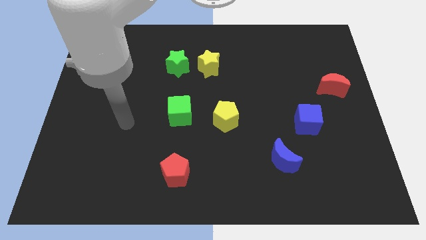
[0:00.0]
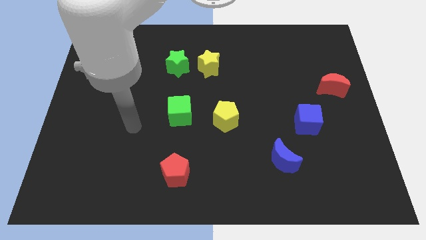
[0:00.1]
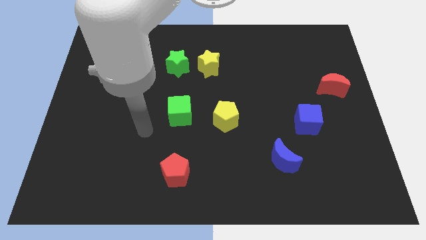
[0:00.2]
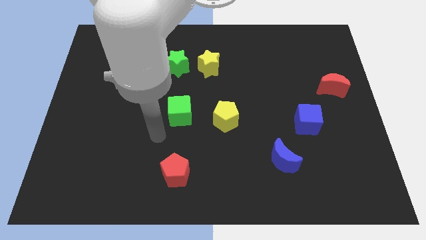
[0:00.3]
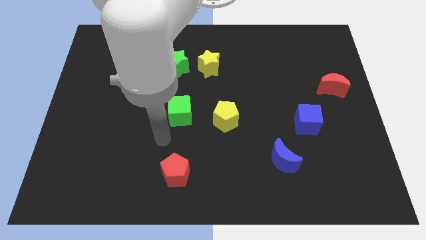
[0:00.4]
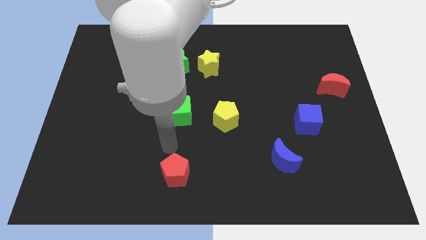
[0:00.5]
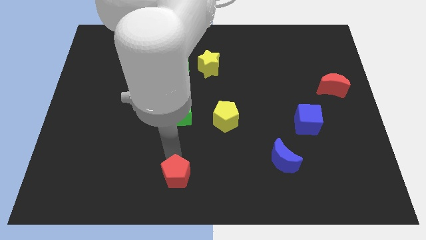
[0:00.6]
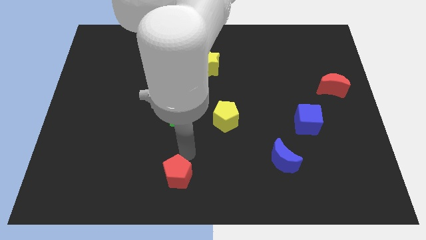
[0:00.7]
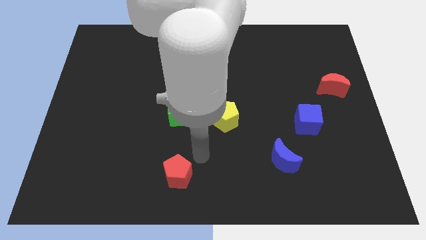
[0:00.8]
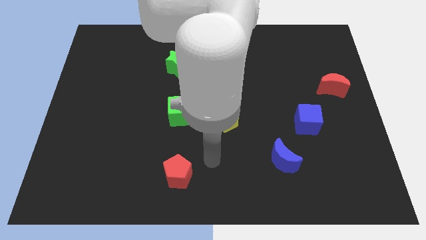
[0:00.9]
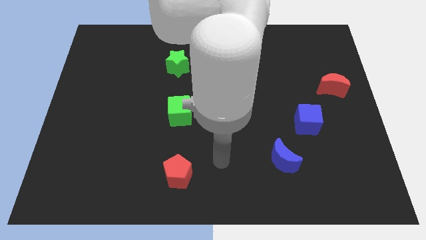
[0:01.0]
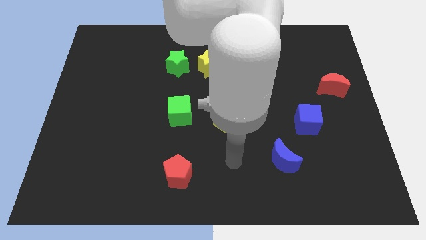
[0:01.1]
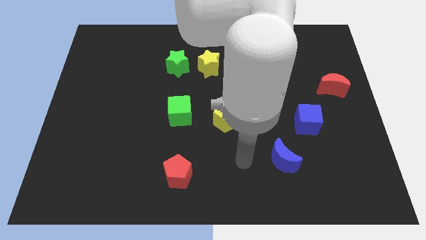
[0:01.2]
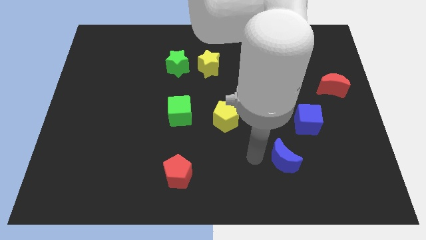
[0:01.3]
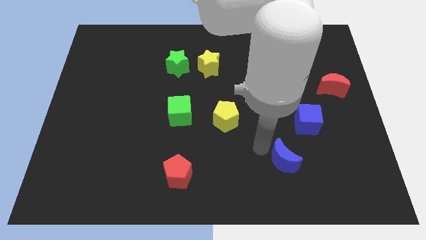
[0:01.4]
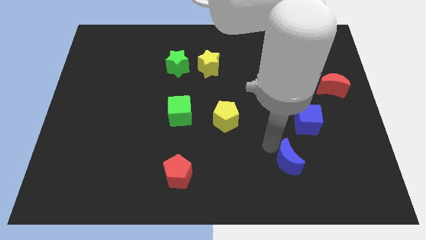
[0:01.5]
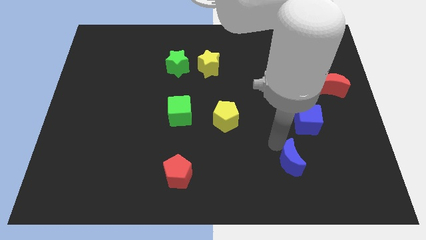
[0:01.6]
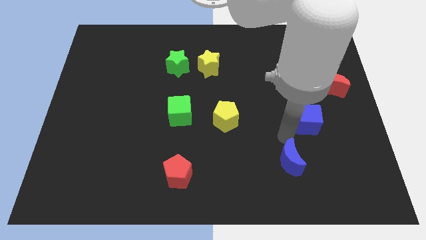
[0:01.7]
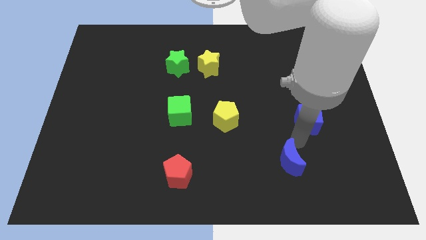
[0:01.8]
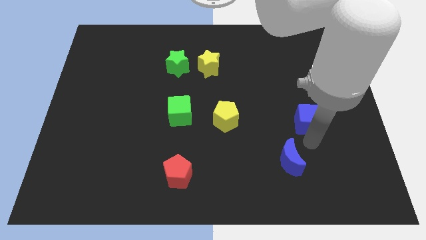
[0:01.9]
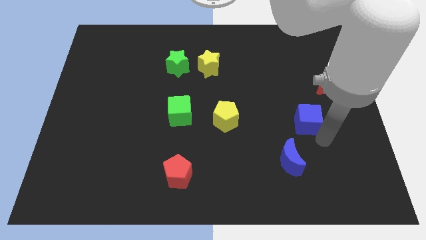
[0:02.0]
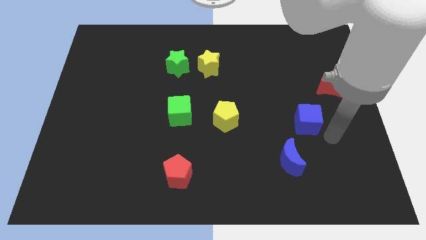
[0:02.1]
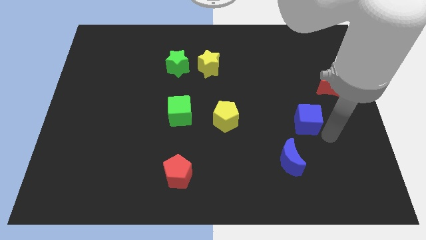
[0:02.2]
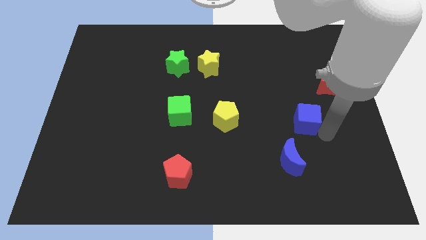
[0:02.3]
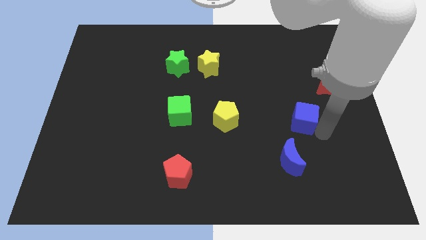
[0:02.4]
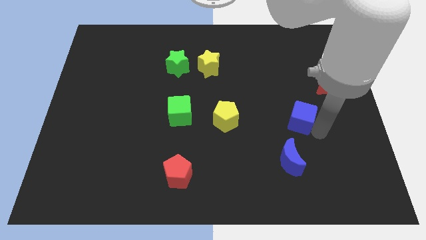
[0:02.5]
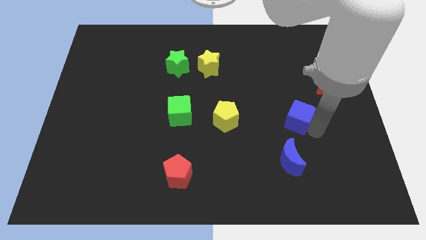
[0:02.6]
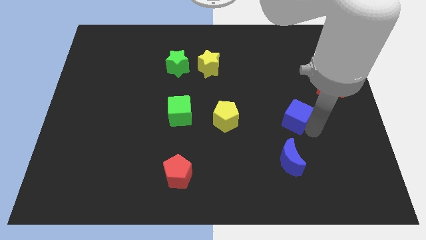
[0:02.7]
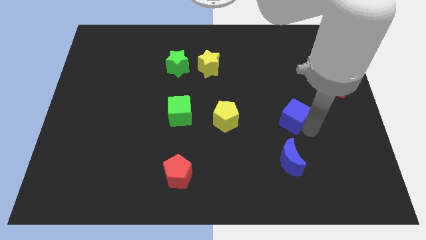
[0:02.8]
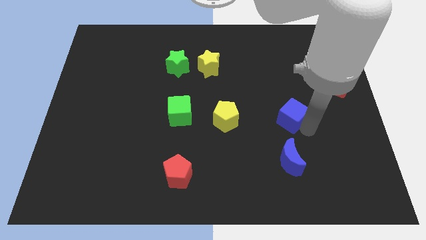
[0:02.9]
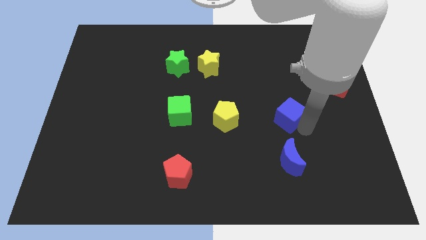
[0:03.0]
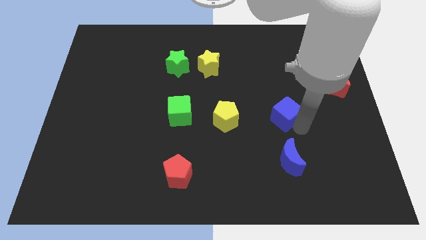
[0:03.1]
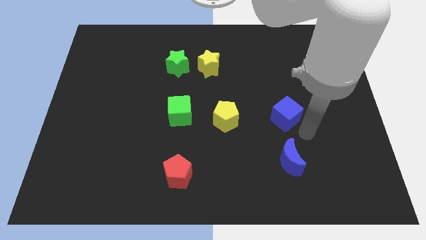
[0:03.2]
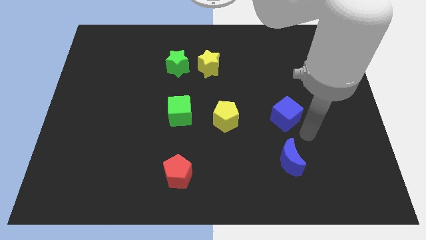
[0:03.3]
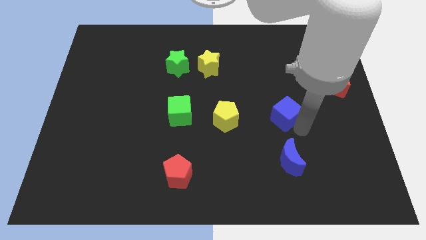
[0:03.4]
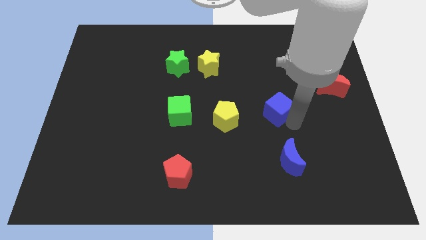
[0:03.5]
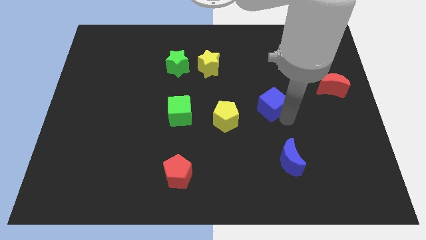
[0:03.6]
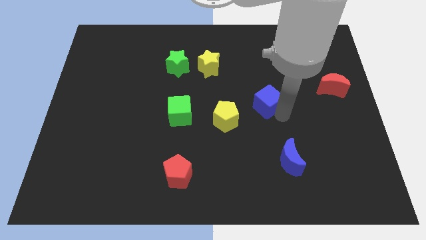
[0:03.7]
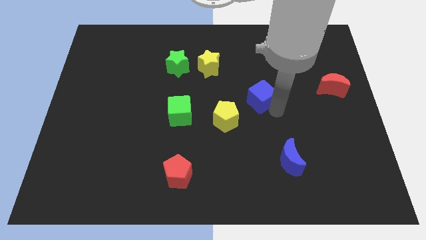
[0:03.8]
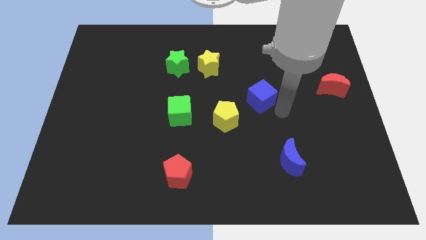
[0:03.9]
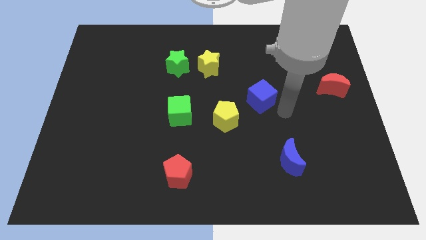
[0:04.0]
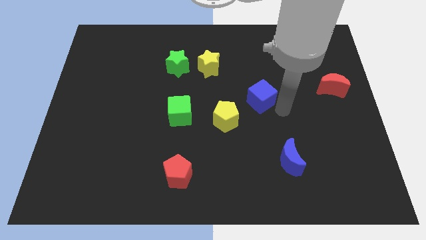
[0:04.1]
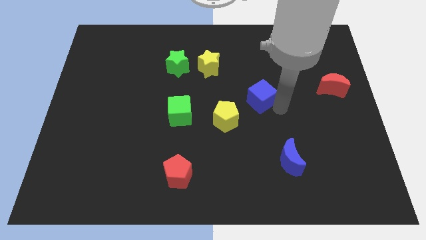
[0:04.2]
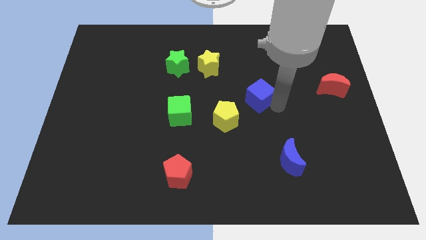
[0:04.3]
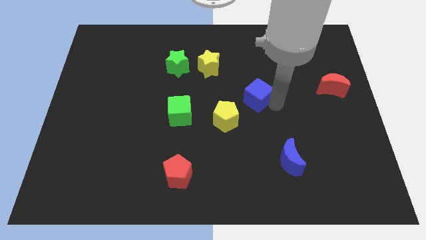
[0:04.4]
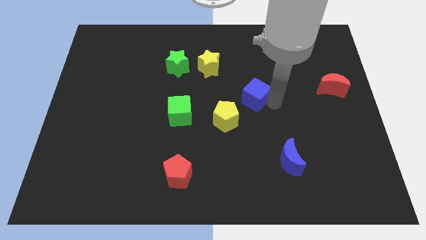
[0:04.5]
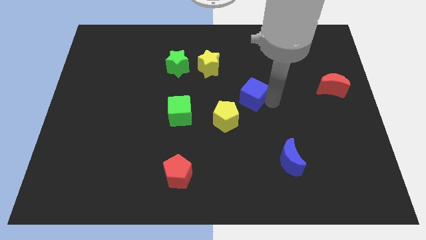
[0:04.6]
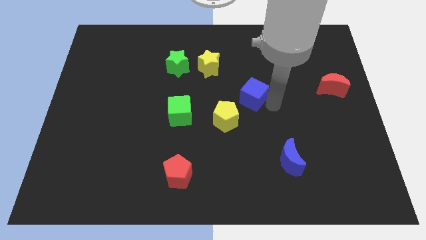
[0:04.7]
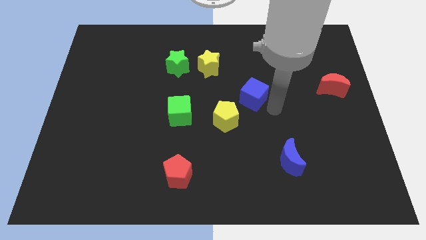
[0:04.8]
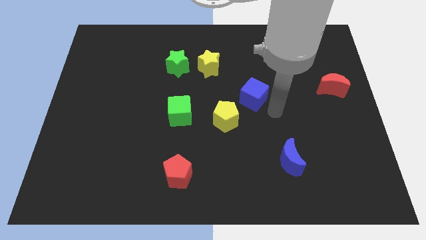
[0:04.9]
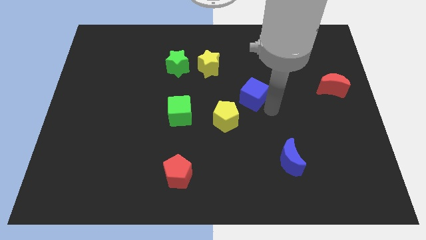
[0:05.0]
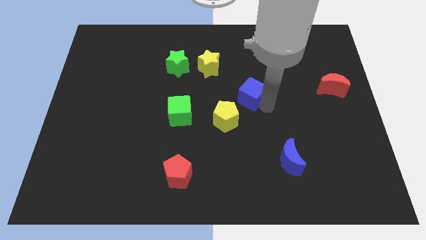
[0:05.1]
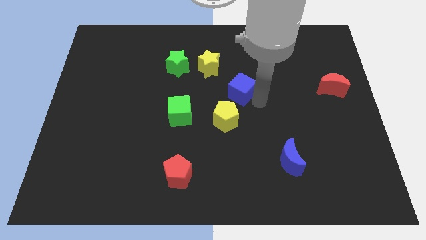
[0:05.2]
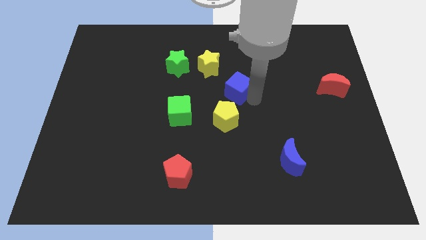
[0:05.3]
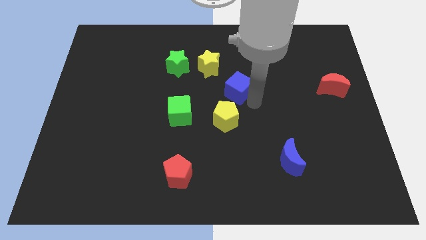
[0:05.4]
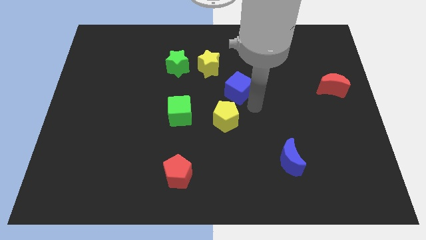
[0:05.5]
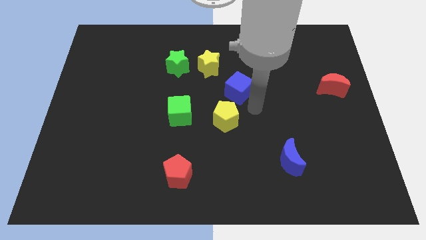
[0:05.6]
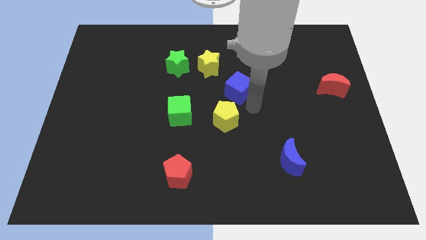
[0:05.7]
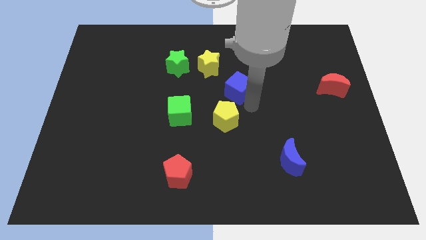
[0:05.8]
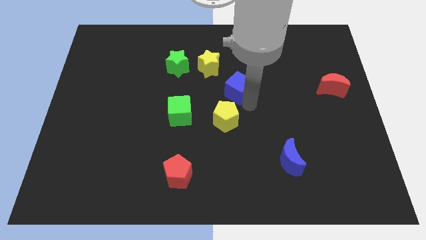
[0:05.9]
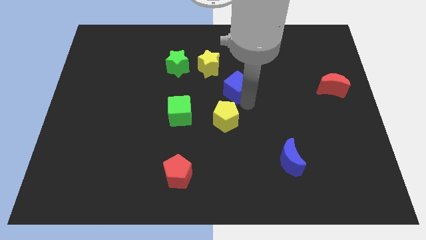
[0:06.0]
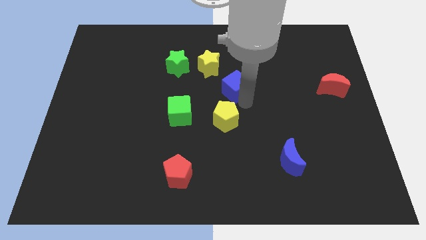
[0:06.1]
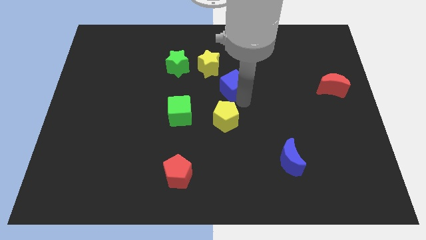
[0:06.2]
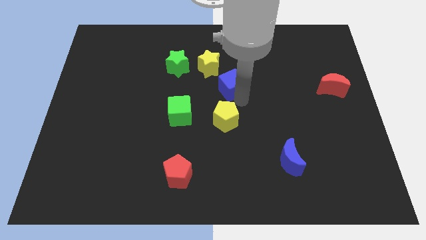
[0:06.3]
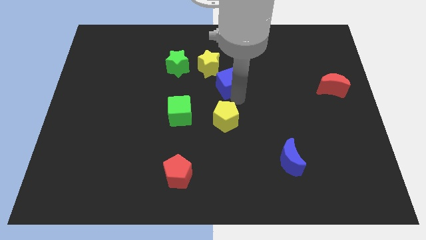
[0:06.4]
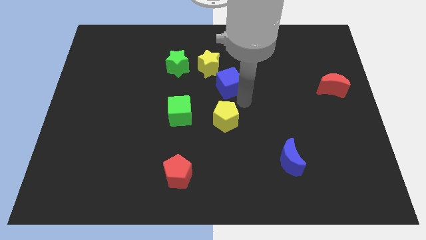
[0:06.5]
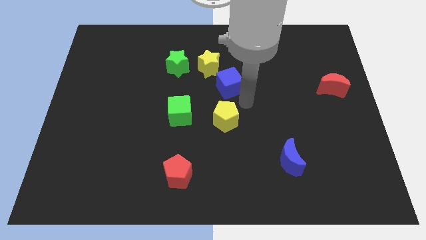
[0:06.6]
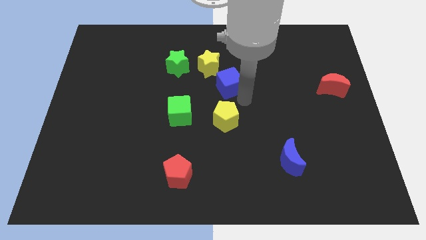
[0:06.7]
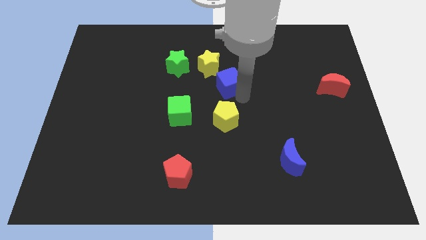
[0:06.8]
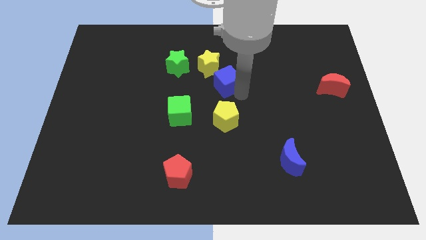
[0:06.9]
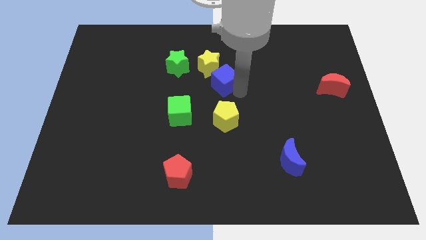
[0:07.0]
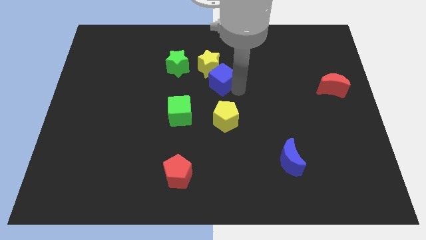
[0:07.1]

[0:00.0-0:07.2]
put the blue cube close to the yellow star

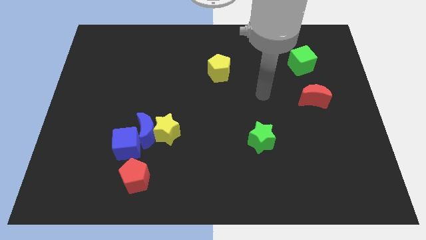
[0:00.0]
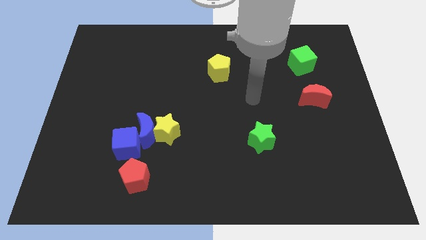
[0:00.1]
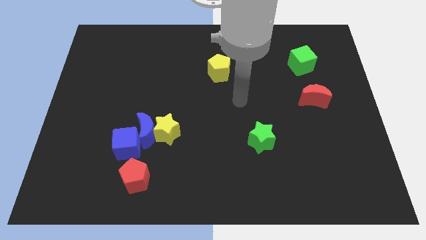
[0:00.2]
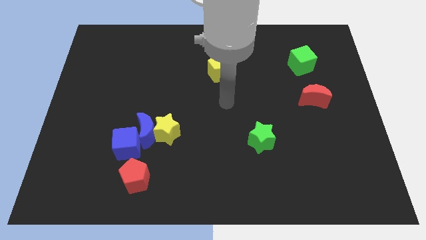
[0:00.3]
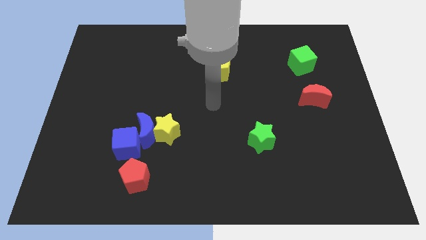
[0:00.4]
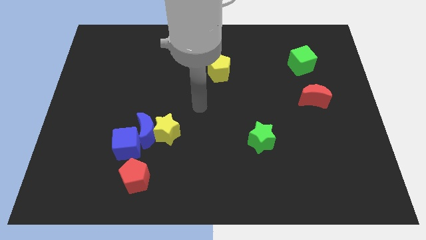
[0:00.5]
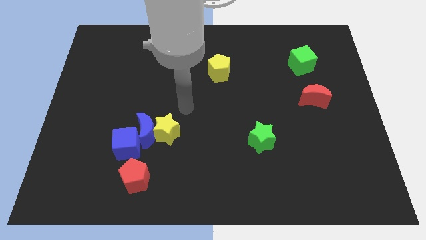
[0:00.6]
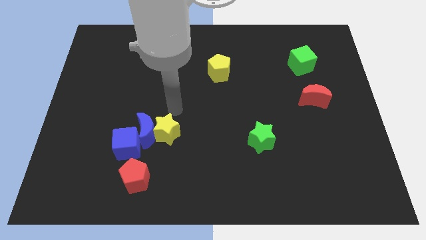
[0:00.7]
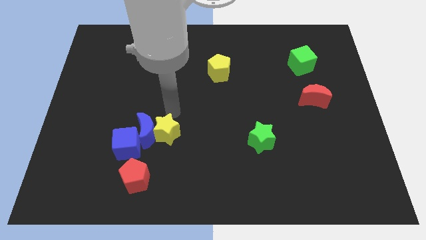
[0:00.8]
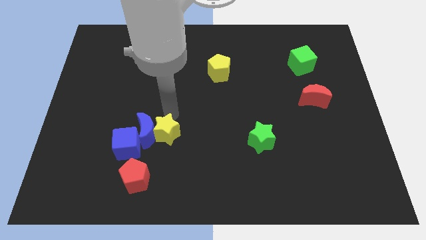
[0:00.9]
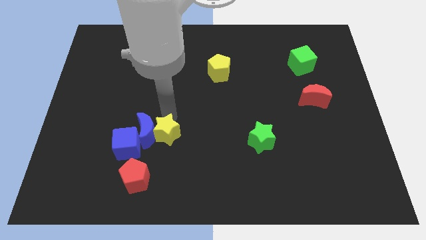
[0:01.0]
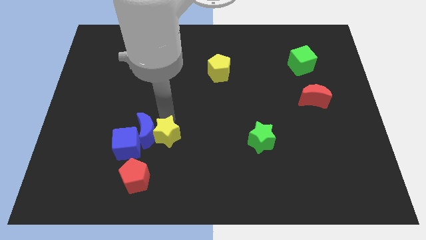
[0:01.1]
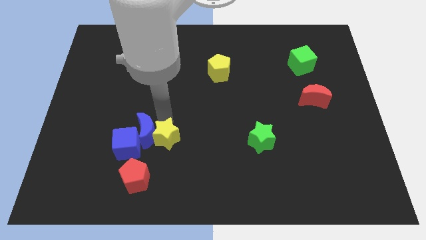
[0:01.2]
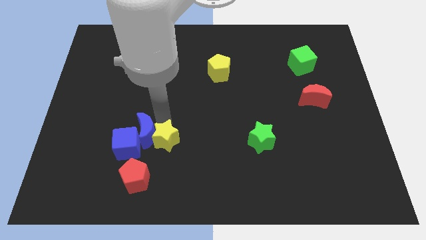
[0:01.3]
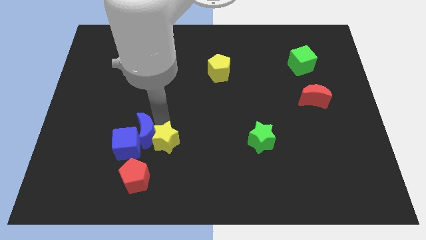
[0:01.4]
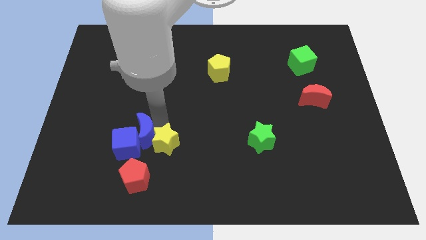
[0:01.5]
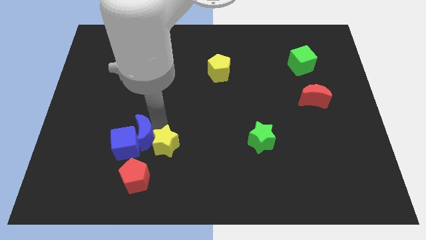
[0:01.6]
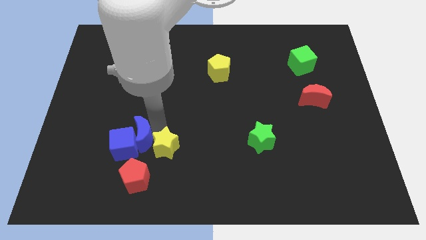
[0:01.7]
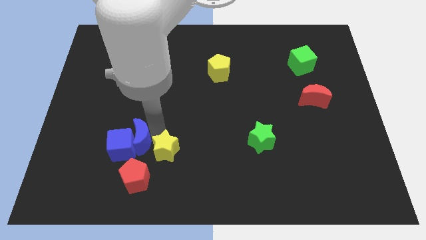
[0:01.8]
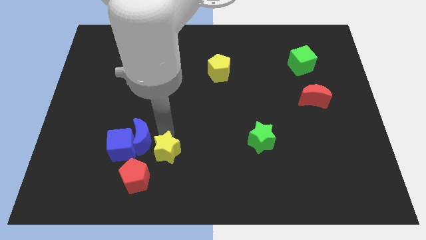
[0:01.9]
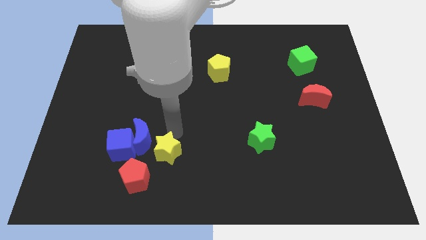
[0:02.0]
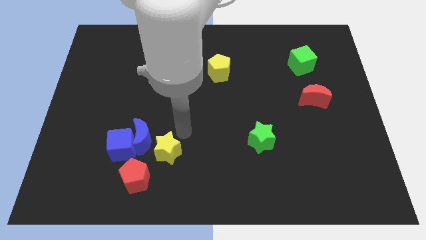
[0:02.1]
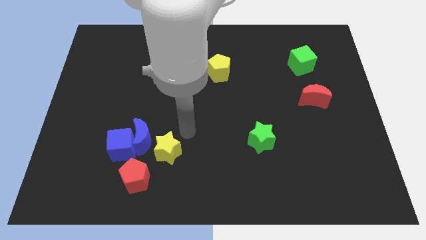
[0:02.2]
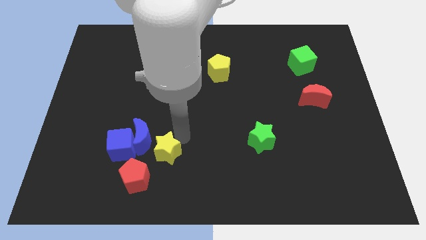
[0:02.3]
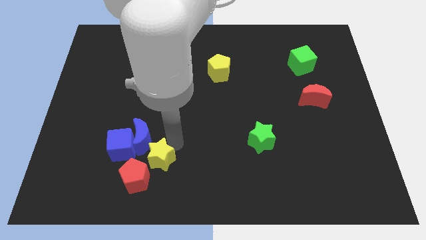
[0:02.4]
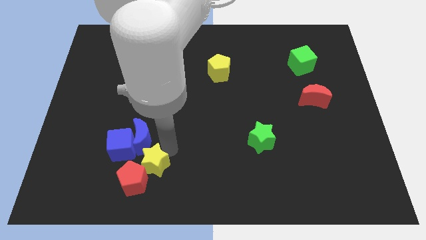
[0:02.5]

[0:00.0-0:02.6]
move the yellow star towards the red pentagon
